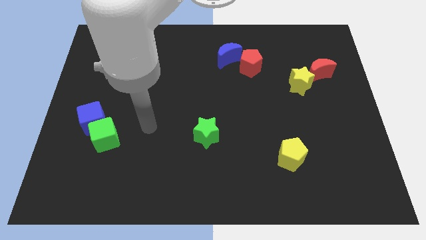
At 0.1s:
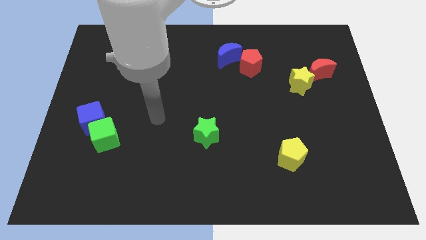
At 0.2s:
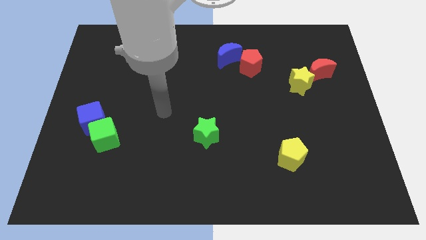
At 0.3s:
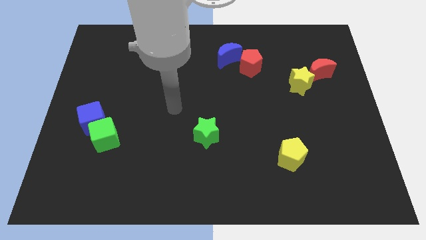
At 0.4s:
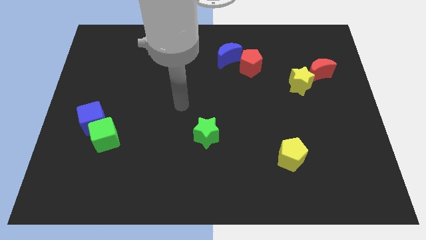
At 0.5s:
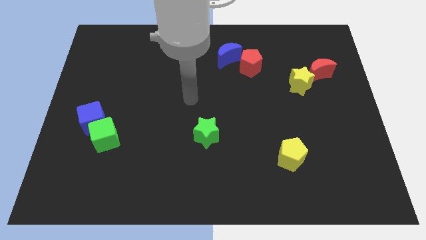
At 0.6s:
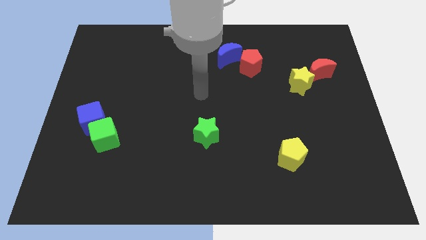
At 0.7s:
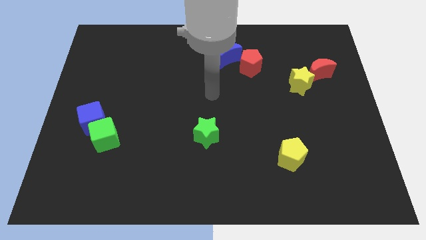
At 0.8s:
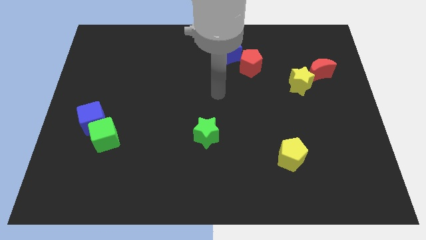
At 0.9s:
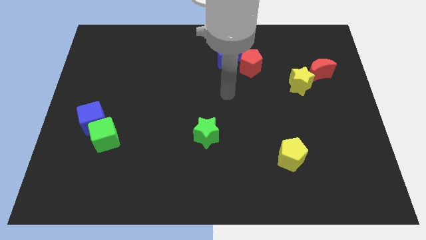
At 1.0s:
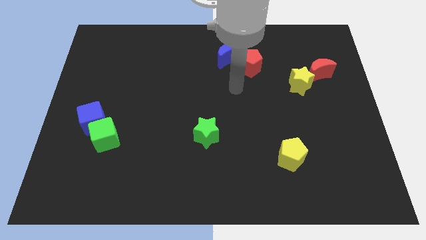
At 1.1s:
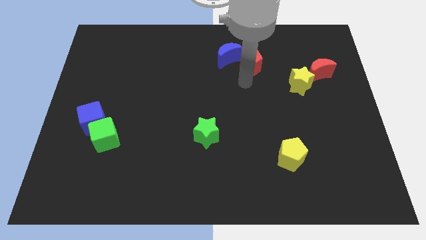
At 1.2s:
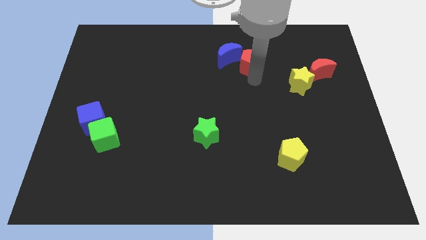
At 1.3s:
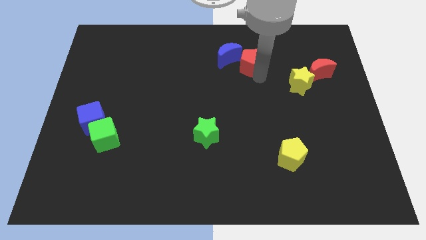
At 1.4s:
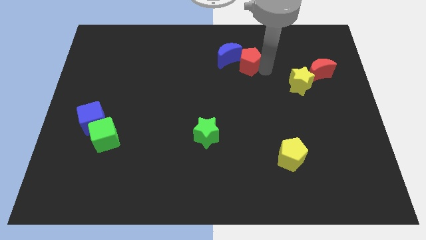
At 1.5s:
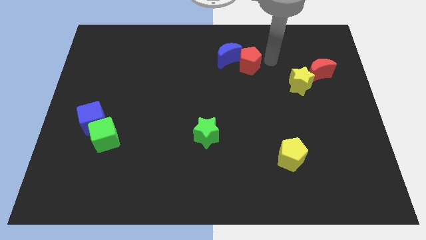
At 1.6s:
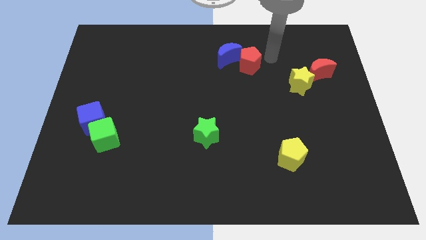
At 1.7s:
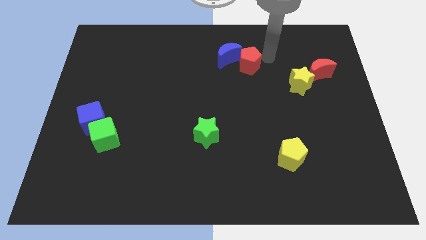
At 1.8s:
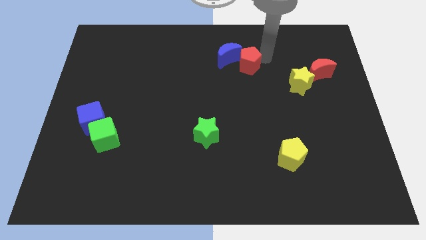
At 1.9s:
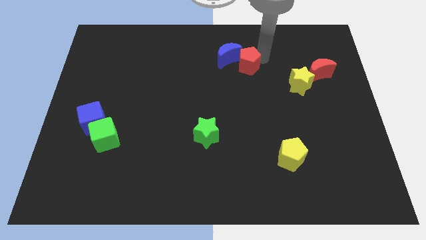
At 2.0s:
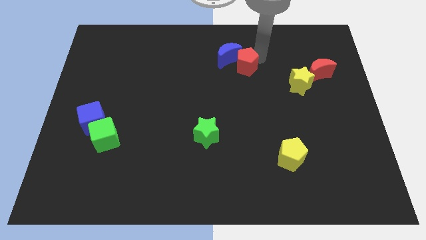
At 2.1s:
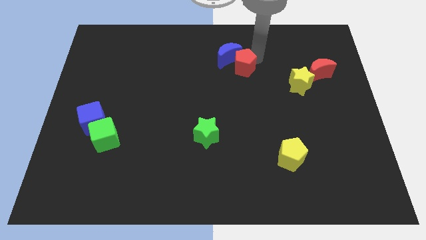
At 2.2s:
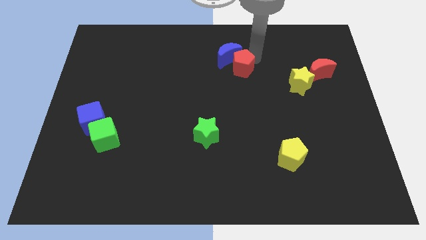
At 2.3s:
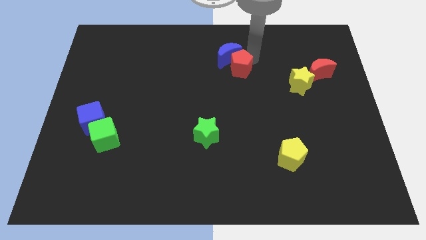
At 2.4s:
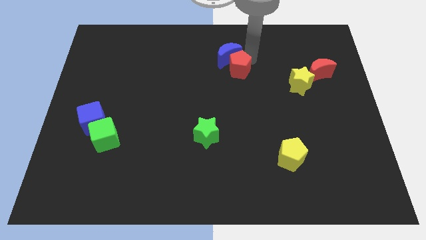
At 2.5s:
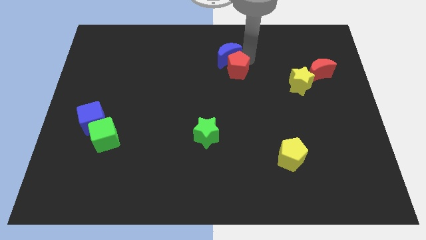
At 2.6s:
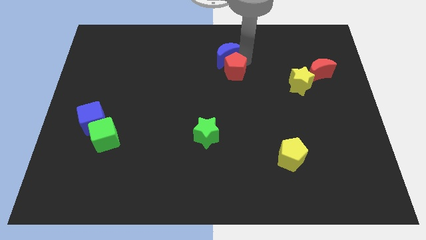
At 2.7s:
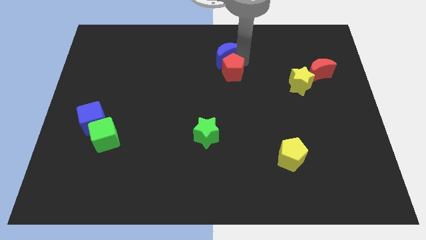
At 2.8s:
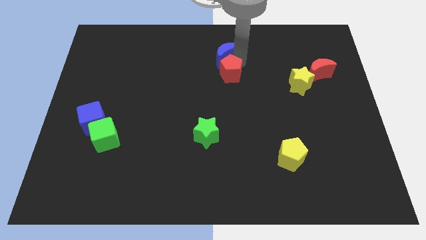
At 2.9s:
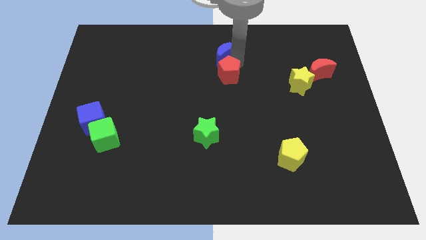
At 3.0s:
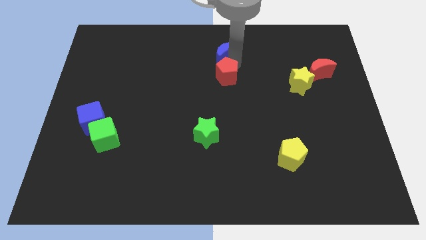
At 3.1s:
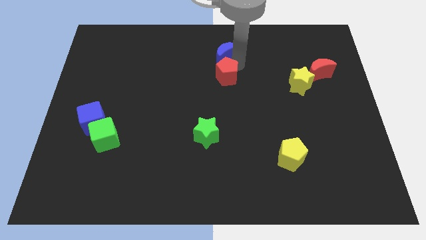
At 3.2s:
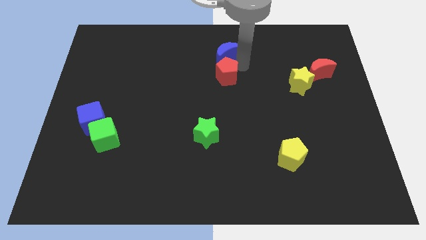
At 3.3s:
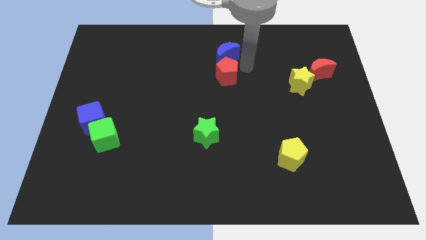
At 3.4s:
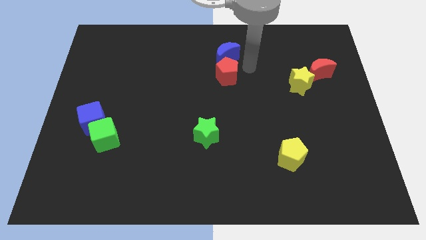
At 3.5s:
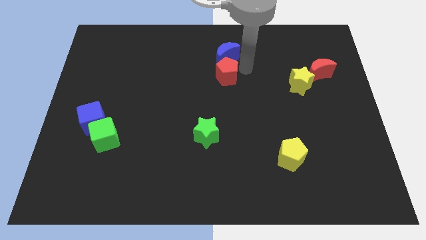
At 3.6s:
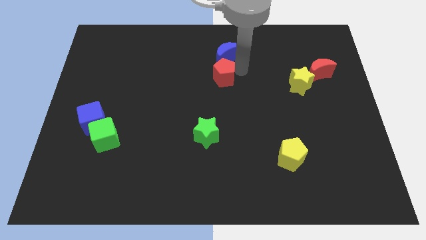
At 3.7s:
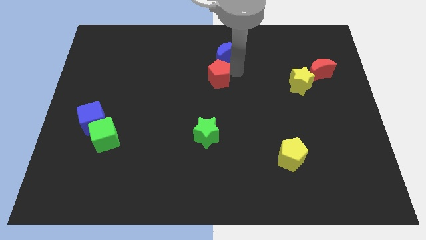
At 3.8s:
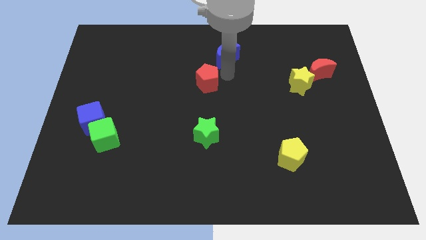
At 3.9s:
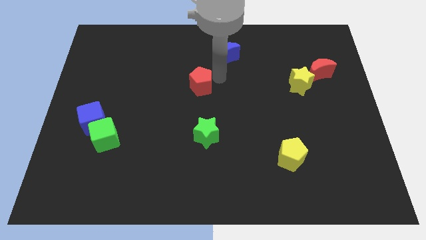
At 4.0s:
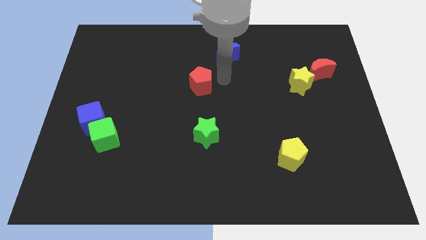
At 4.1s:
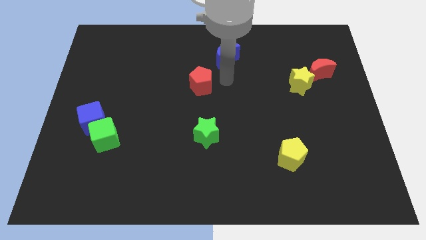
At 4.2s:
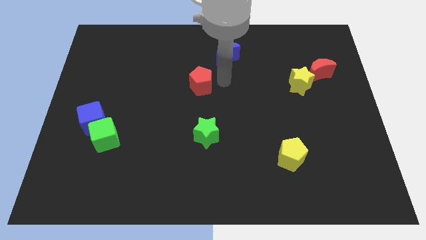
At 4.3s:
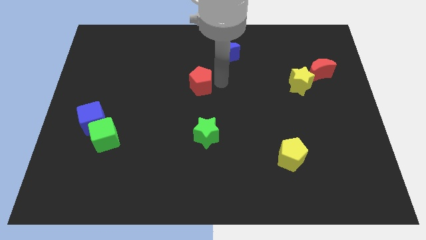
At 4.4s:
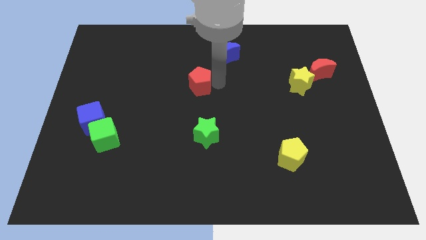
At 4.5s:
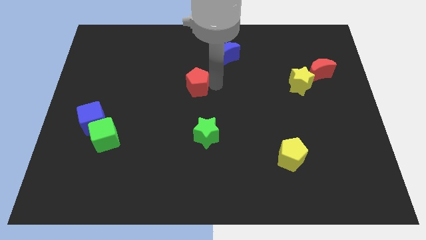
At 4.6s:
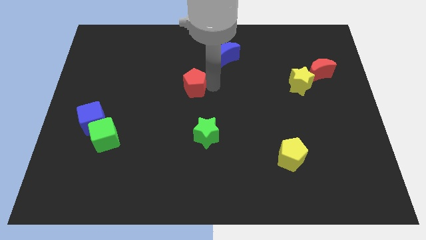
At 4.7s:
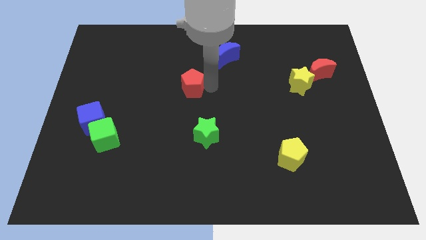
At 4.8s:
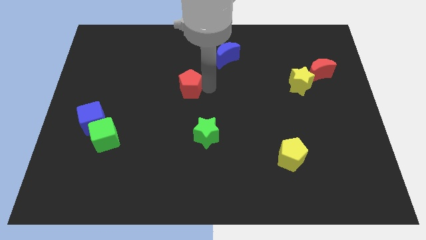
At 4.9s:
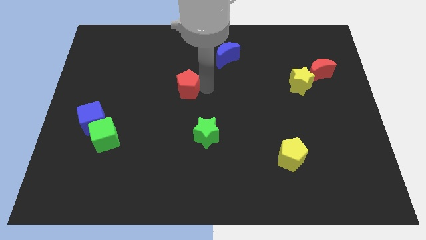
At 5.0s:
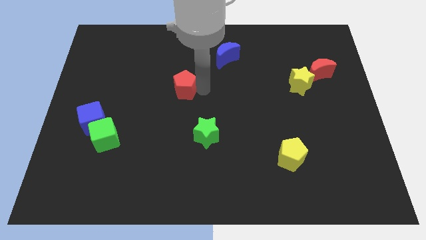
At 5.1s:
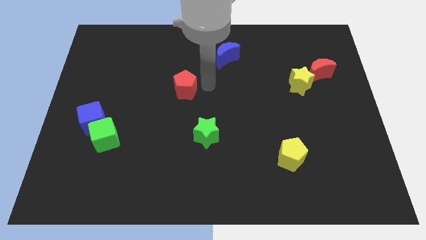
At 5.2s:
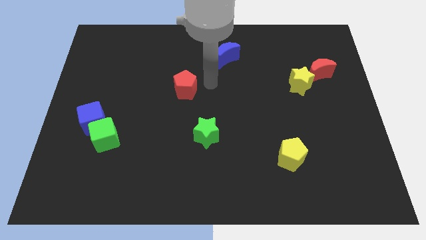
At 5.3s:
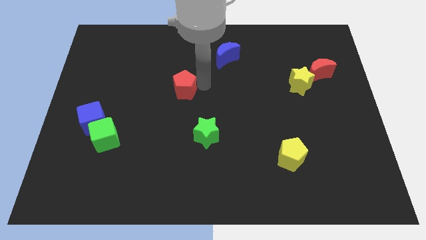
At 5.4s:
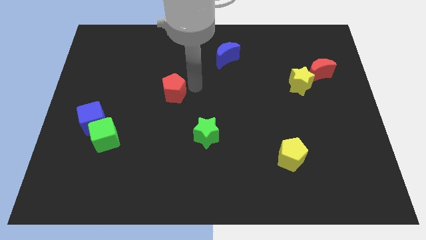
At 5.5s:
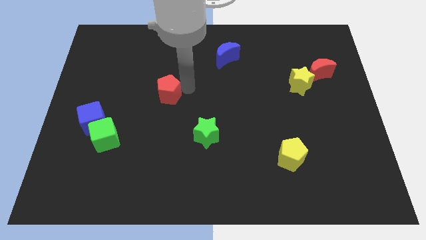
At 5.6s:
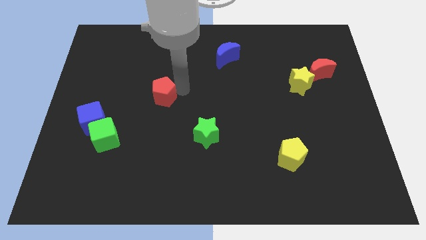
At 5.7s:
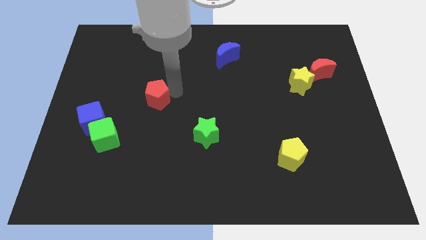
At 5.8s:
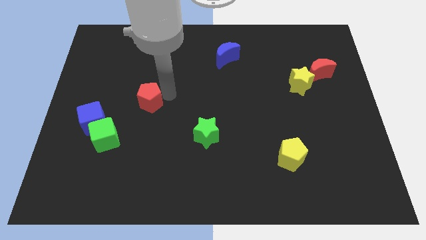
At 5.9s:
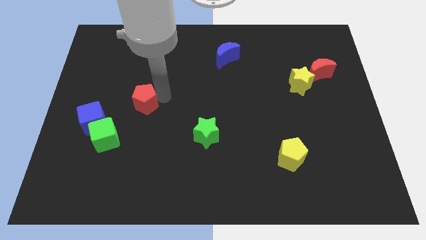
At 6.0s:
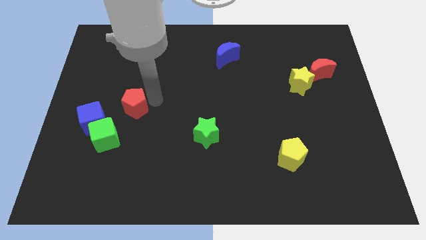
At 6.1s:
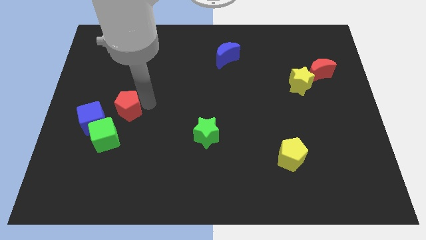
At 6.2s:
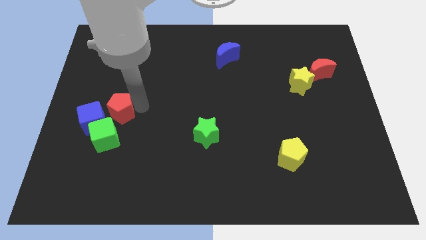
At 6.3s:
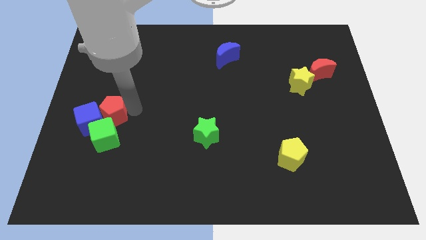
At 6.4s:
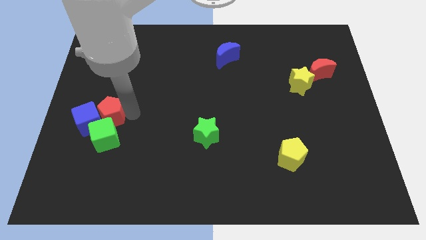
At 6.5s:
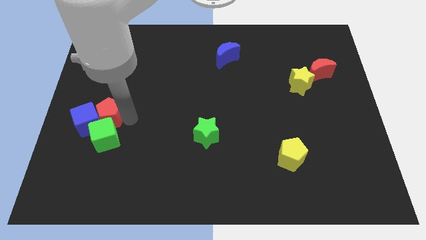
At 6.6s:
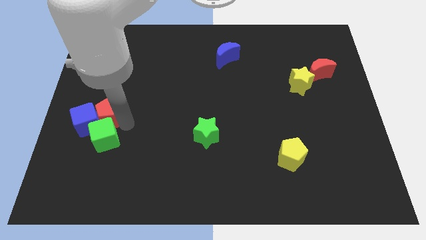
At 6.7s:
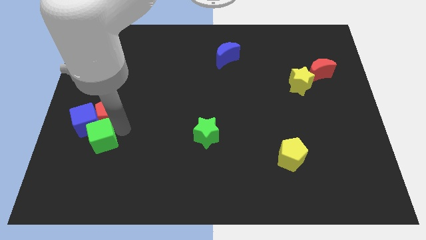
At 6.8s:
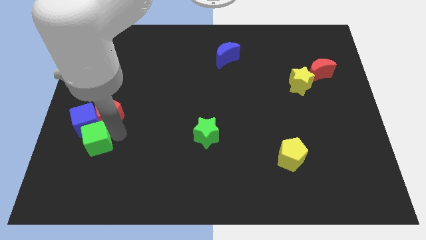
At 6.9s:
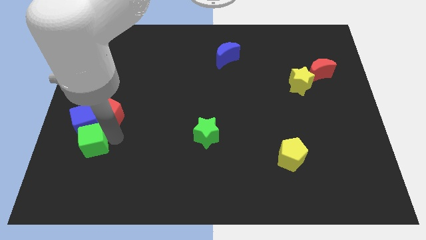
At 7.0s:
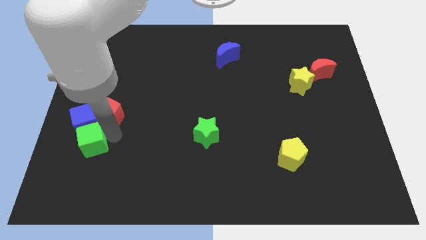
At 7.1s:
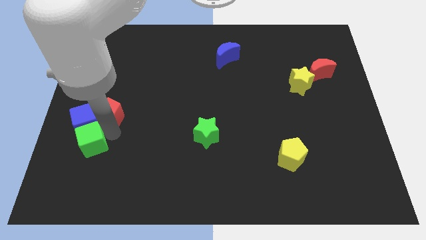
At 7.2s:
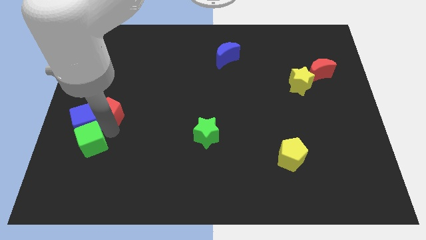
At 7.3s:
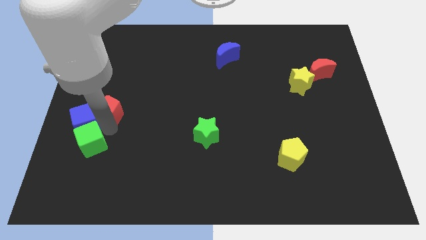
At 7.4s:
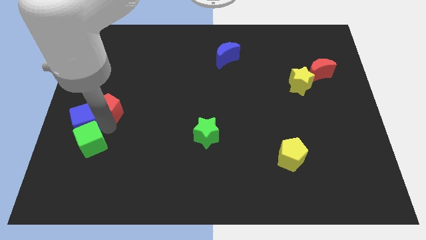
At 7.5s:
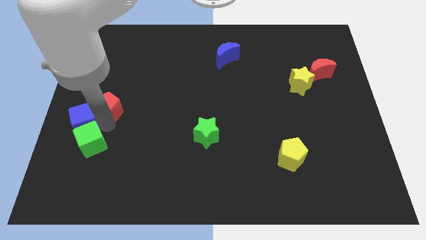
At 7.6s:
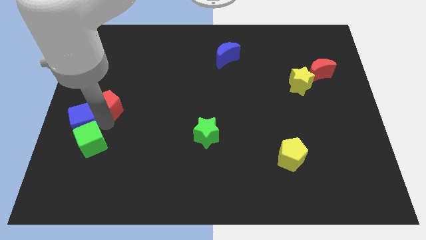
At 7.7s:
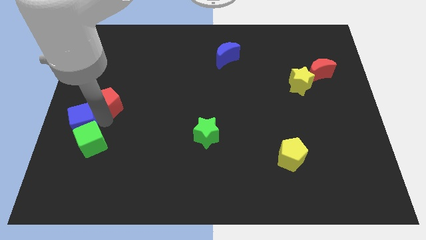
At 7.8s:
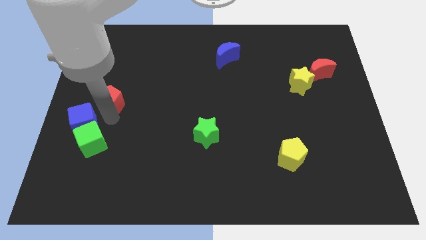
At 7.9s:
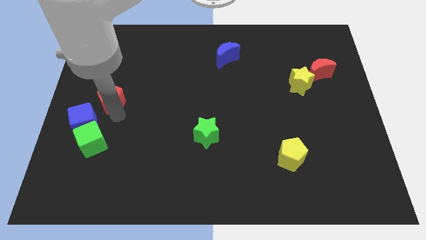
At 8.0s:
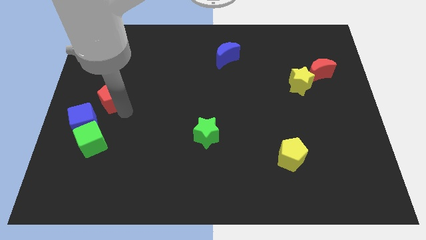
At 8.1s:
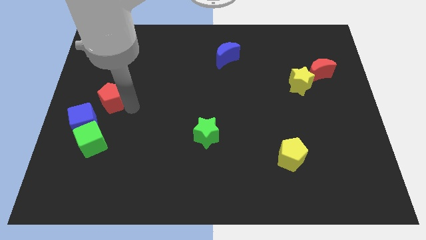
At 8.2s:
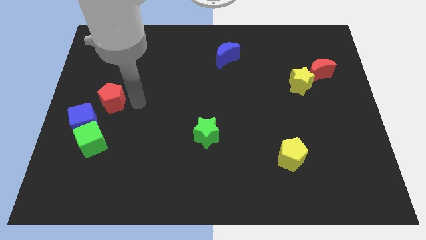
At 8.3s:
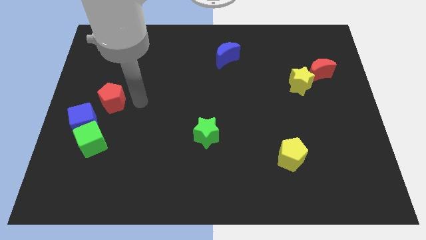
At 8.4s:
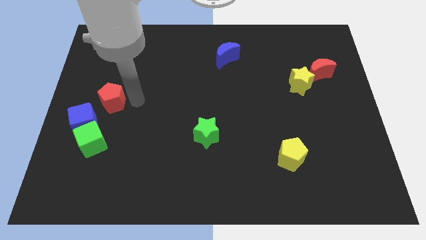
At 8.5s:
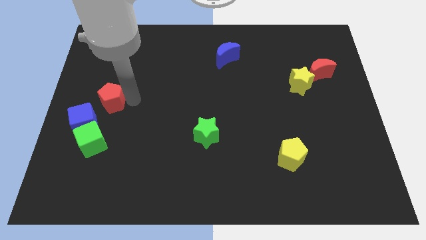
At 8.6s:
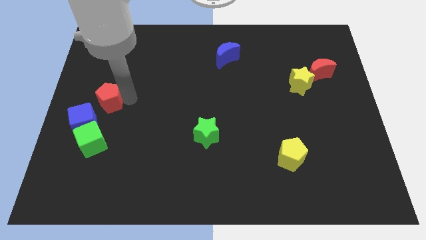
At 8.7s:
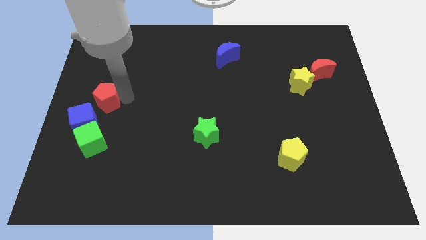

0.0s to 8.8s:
push the red pentagon to the center left
